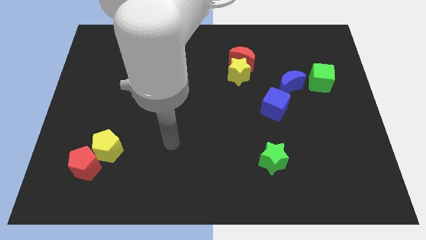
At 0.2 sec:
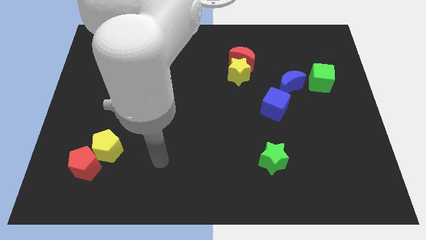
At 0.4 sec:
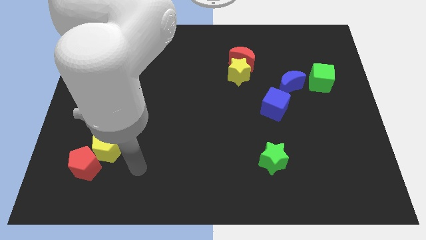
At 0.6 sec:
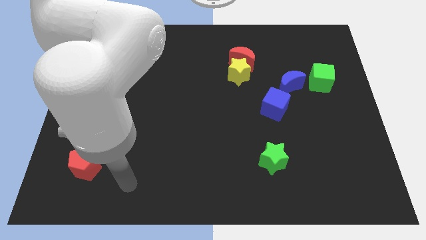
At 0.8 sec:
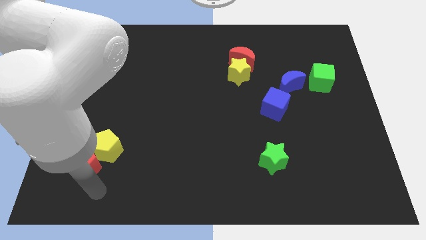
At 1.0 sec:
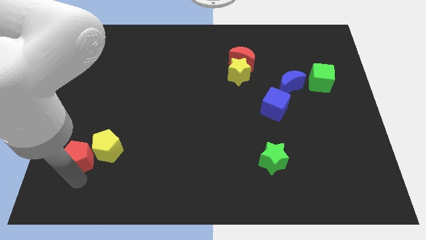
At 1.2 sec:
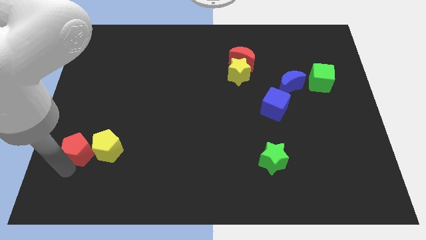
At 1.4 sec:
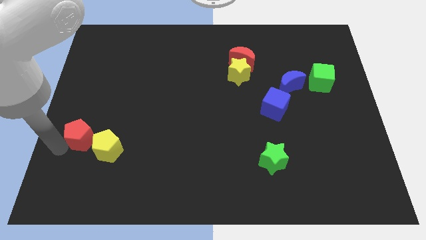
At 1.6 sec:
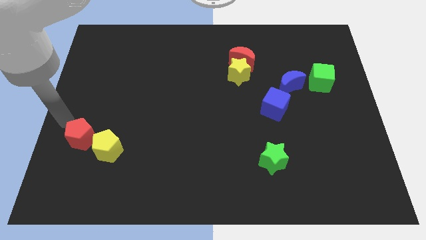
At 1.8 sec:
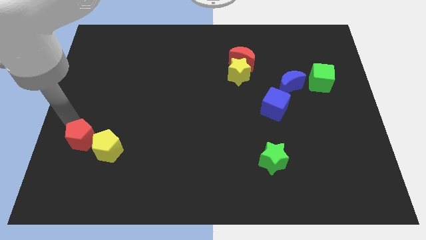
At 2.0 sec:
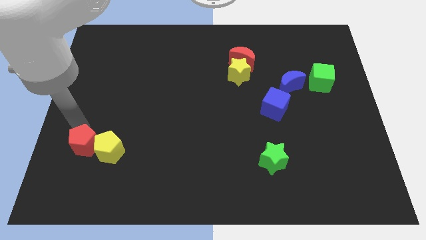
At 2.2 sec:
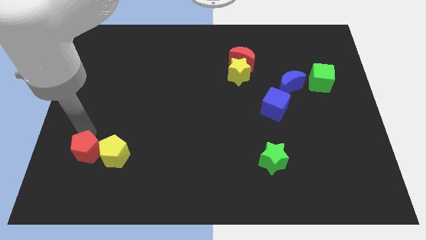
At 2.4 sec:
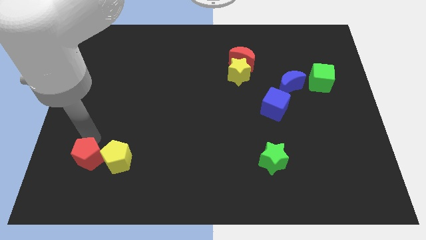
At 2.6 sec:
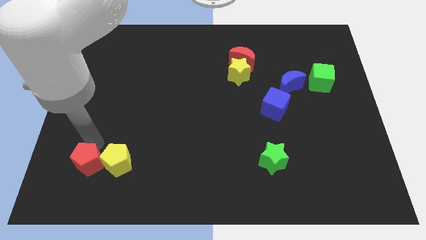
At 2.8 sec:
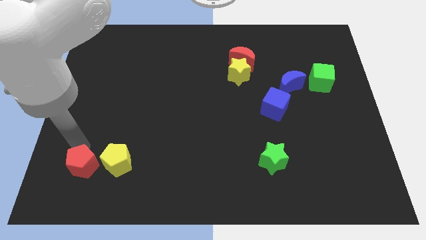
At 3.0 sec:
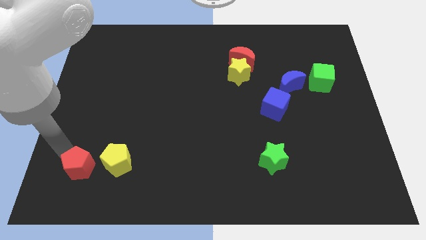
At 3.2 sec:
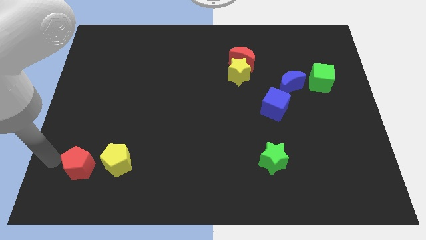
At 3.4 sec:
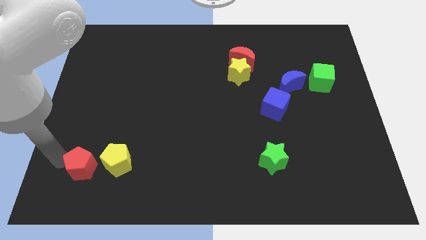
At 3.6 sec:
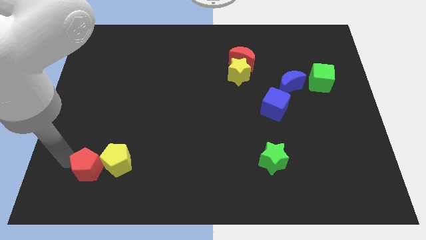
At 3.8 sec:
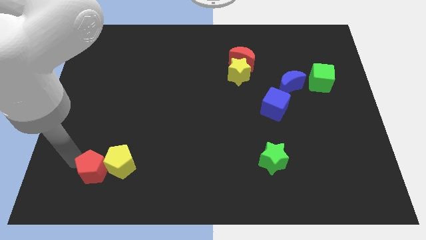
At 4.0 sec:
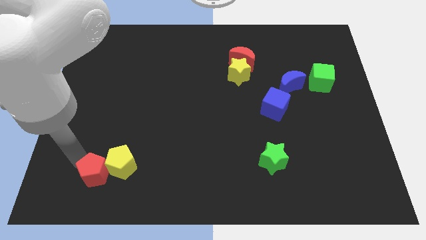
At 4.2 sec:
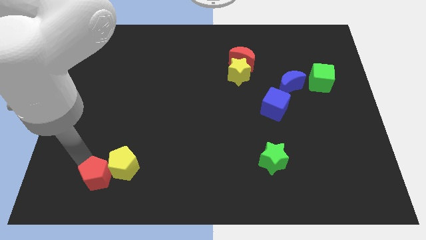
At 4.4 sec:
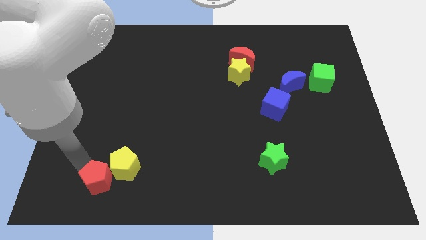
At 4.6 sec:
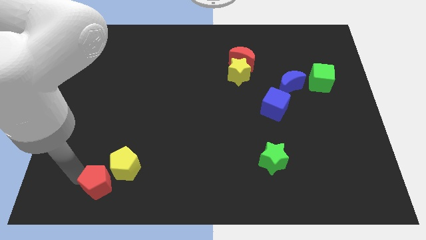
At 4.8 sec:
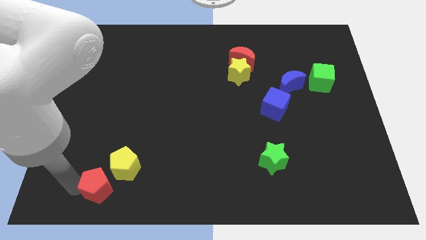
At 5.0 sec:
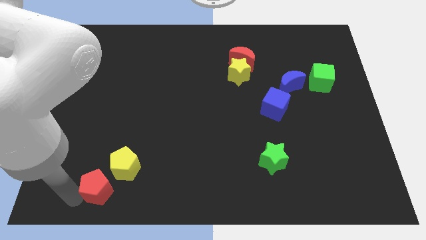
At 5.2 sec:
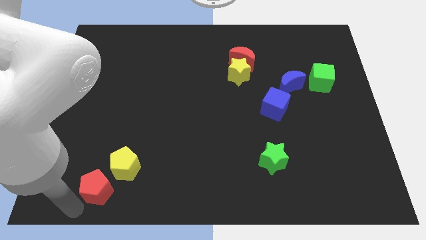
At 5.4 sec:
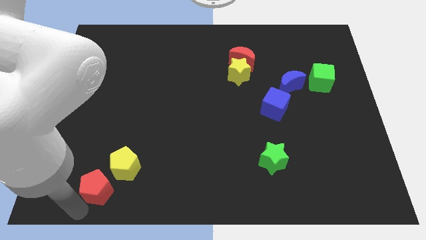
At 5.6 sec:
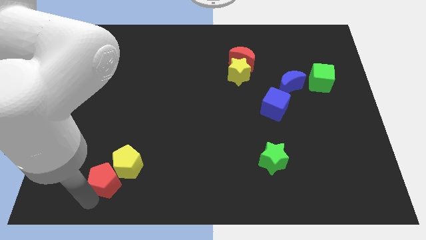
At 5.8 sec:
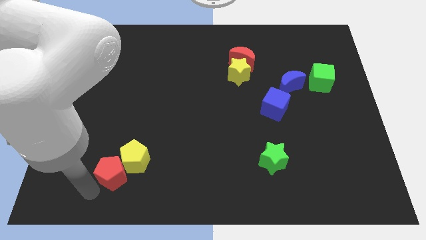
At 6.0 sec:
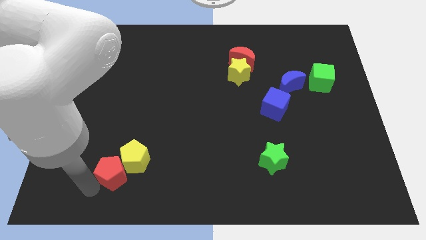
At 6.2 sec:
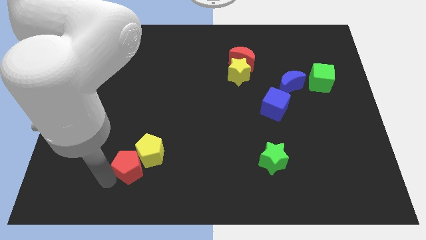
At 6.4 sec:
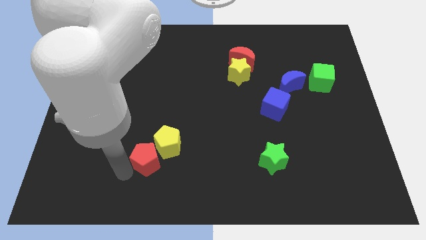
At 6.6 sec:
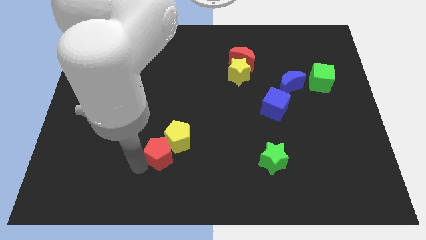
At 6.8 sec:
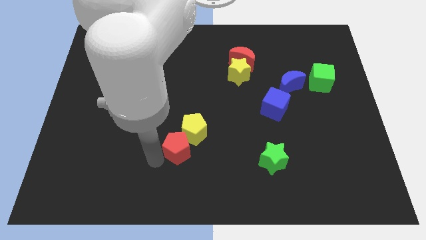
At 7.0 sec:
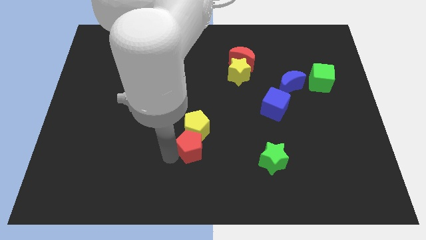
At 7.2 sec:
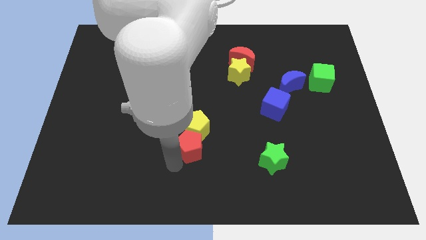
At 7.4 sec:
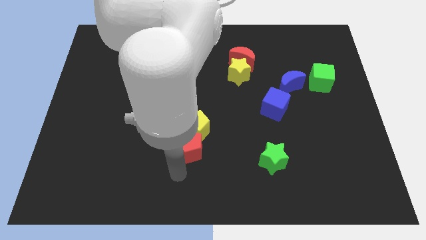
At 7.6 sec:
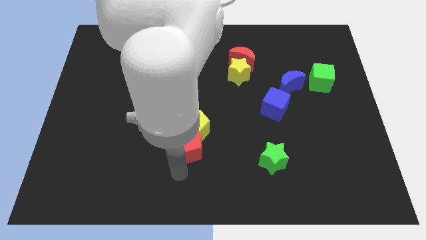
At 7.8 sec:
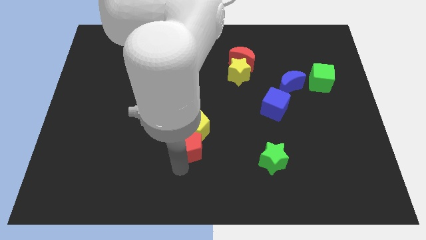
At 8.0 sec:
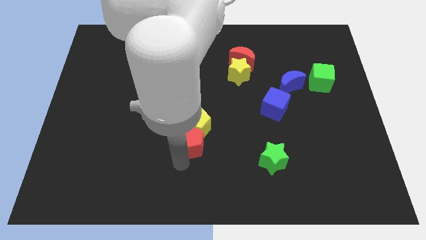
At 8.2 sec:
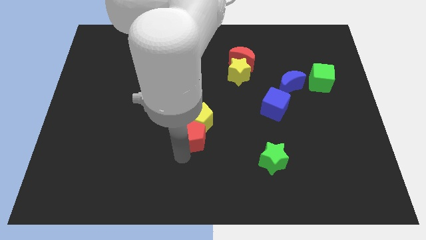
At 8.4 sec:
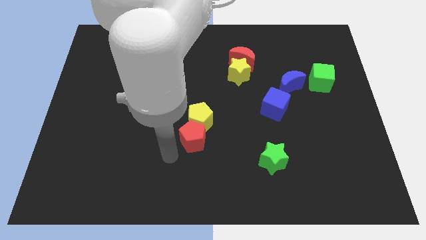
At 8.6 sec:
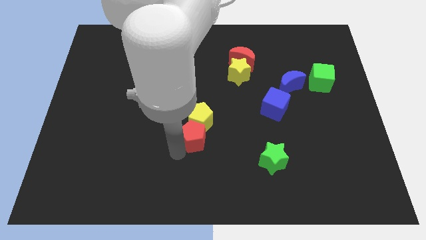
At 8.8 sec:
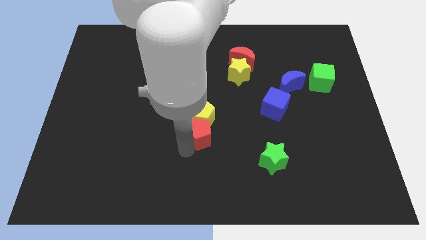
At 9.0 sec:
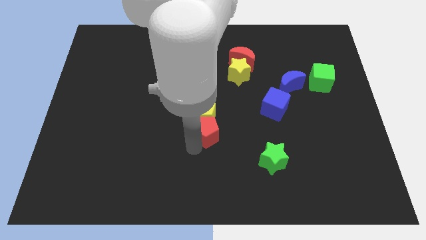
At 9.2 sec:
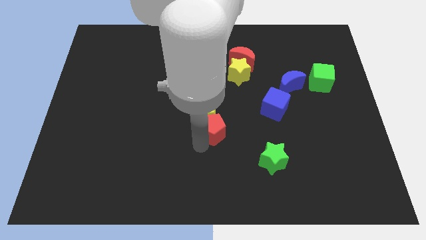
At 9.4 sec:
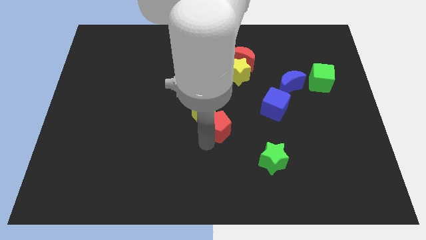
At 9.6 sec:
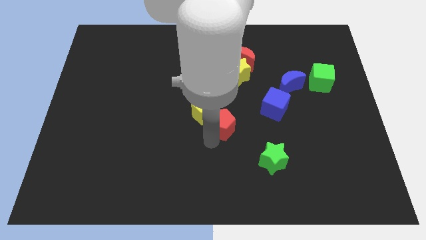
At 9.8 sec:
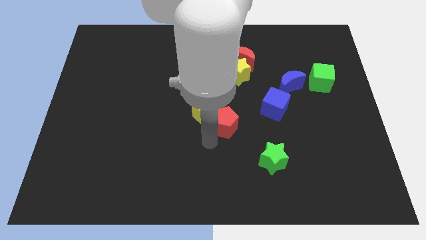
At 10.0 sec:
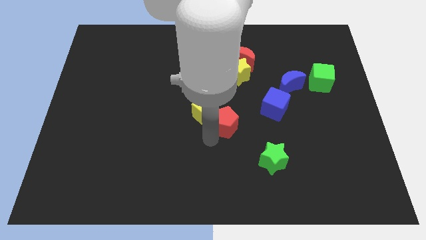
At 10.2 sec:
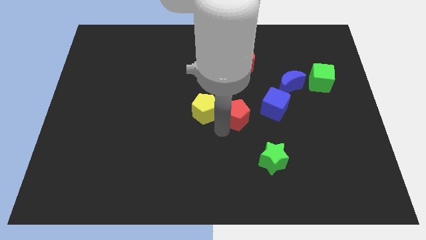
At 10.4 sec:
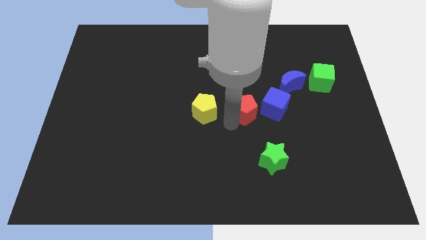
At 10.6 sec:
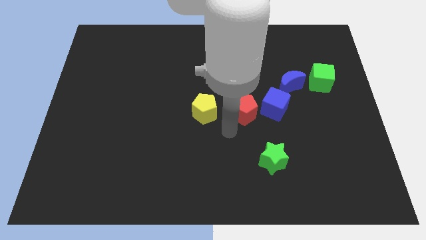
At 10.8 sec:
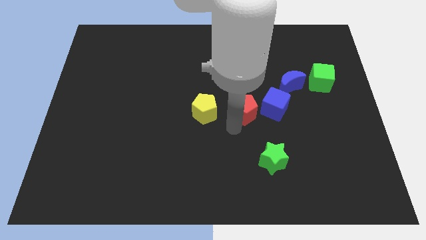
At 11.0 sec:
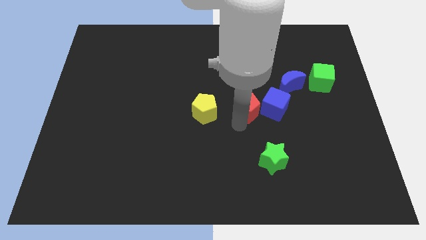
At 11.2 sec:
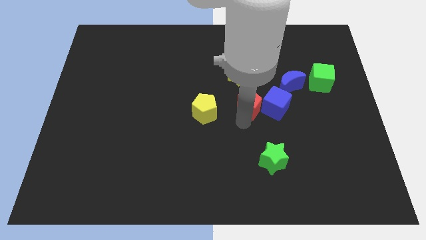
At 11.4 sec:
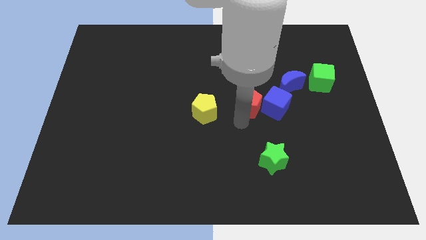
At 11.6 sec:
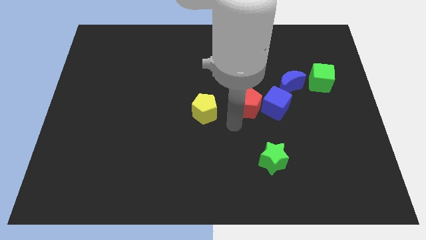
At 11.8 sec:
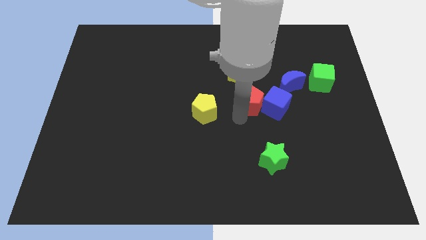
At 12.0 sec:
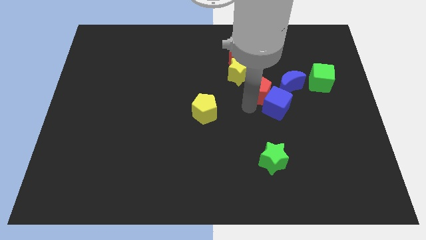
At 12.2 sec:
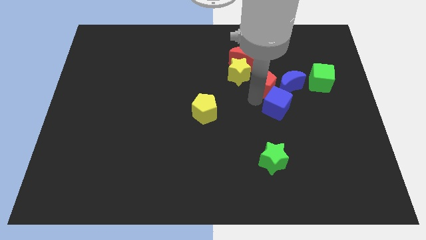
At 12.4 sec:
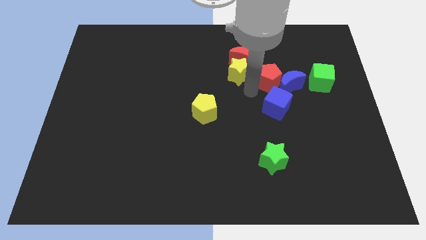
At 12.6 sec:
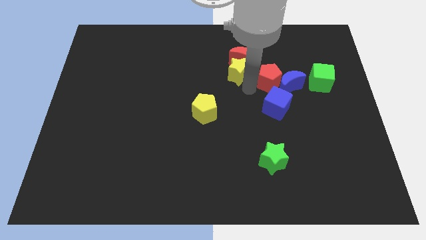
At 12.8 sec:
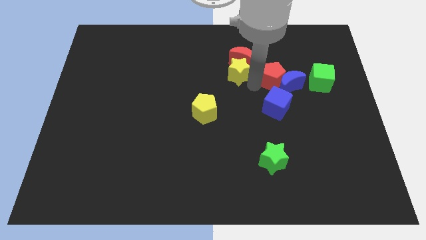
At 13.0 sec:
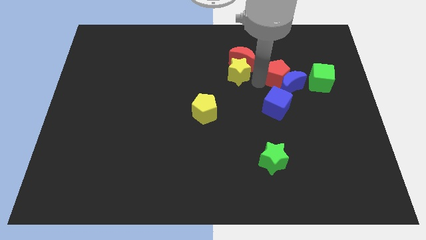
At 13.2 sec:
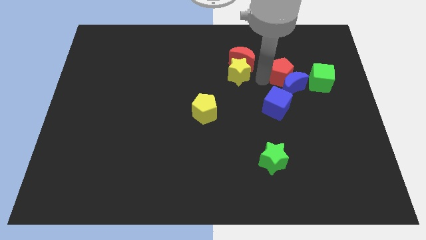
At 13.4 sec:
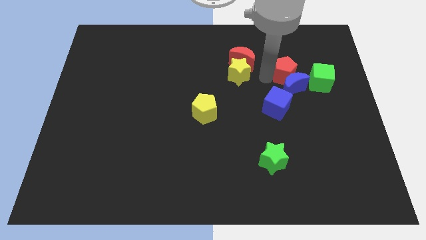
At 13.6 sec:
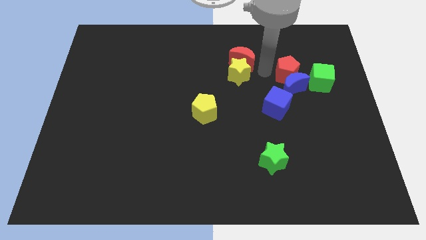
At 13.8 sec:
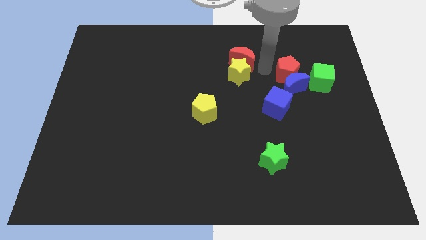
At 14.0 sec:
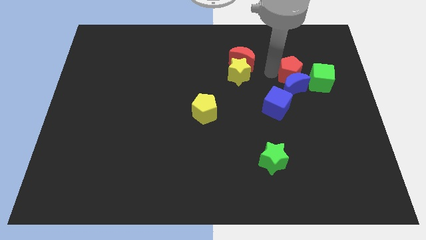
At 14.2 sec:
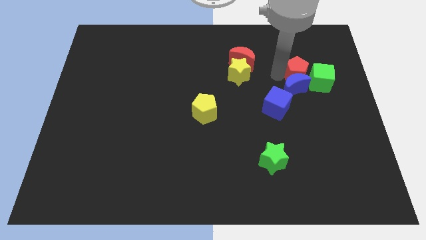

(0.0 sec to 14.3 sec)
push the red pentagon to the green cube

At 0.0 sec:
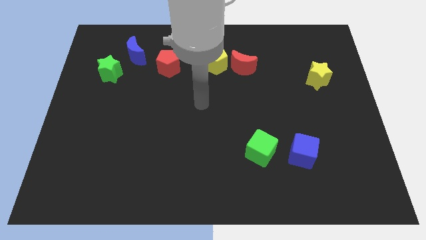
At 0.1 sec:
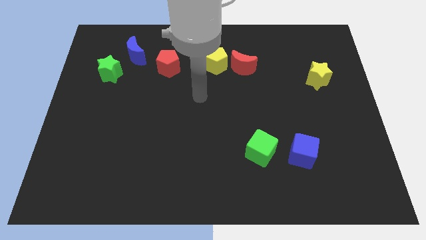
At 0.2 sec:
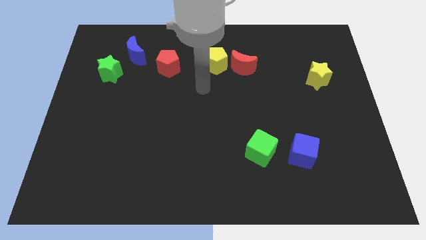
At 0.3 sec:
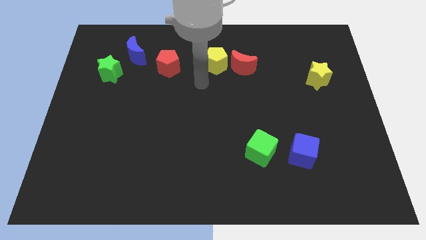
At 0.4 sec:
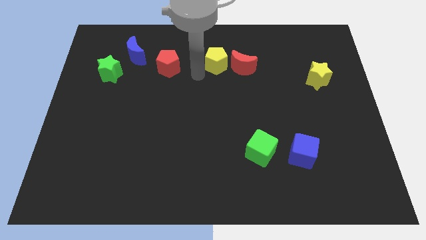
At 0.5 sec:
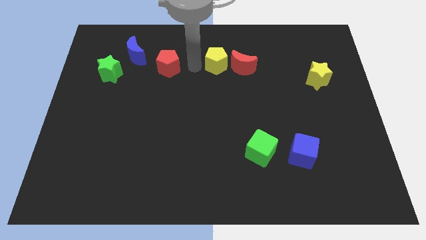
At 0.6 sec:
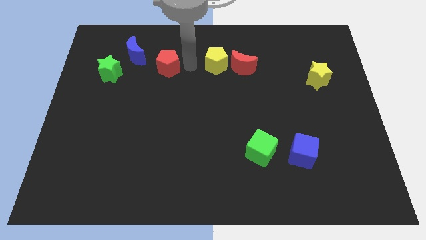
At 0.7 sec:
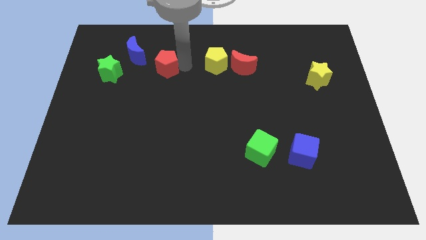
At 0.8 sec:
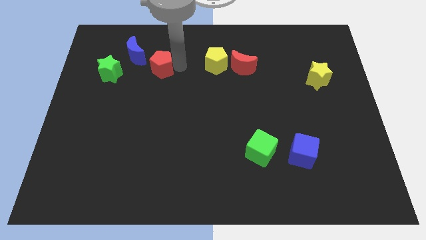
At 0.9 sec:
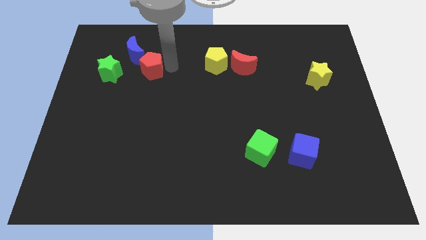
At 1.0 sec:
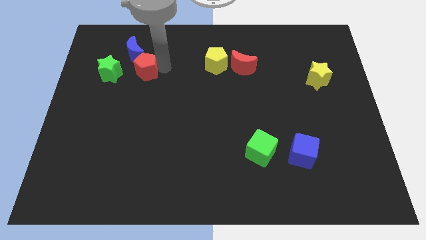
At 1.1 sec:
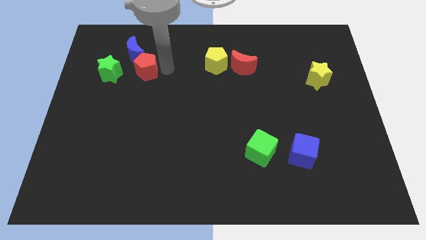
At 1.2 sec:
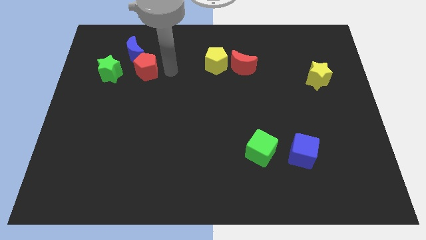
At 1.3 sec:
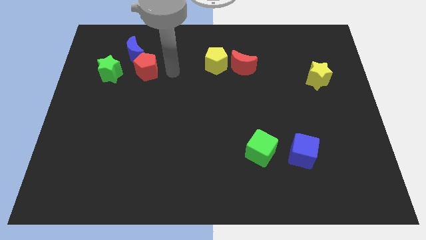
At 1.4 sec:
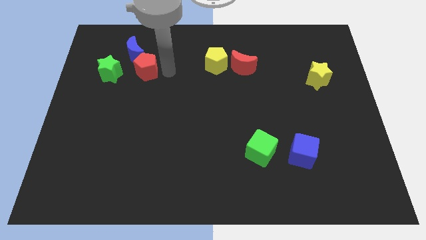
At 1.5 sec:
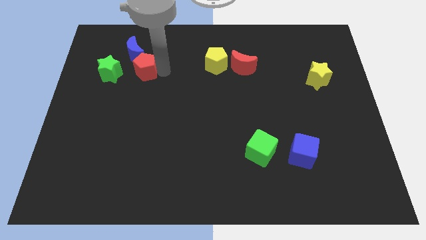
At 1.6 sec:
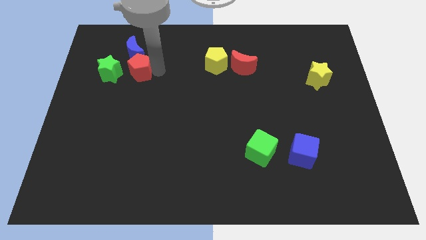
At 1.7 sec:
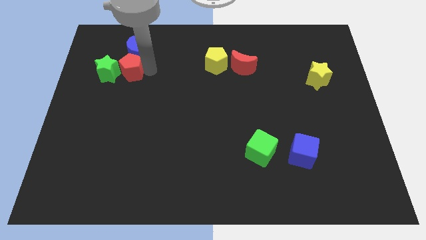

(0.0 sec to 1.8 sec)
move the red pentagon to the green star
